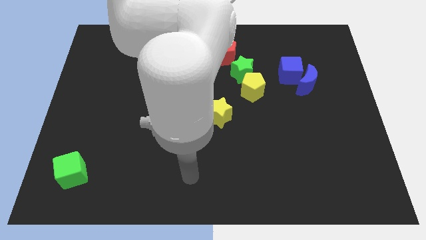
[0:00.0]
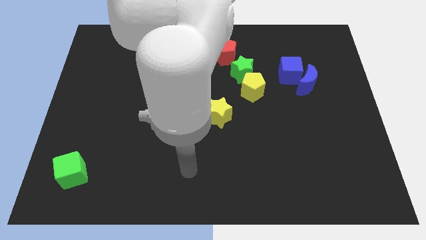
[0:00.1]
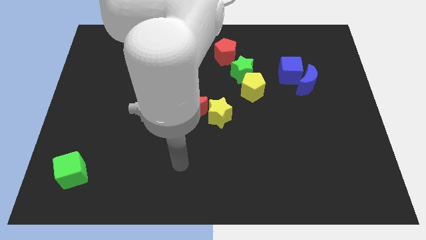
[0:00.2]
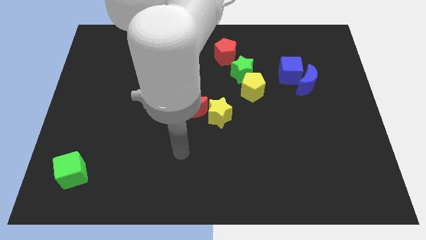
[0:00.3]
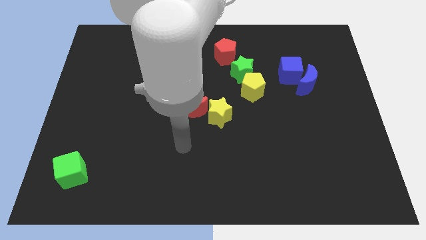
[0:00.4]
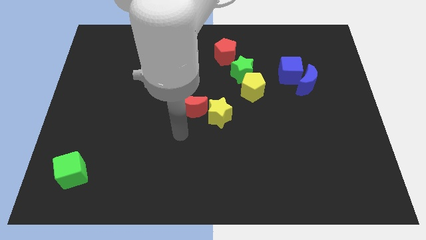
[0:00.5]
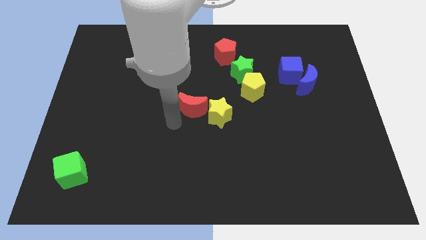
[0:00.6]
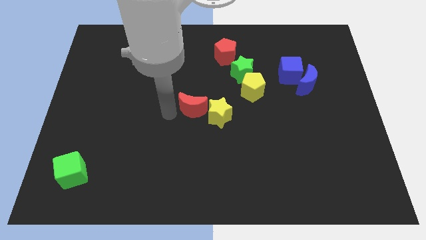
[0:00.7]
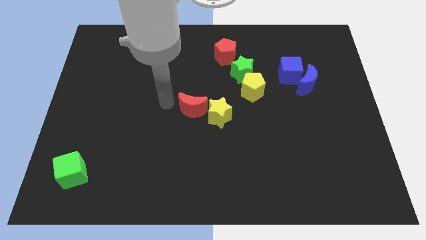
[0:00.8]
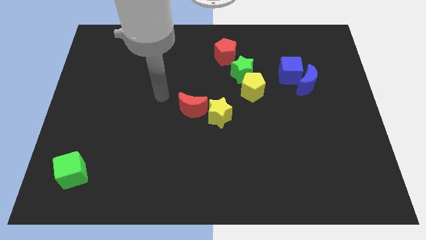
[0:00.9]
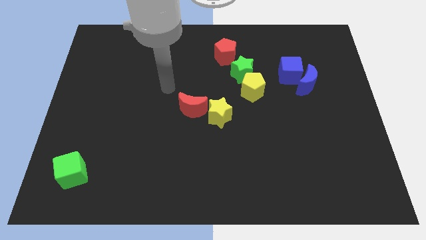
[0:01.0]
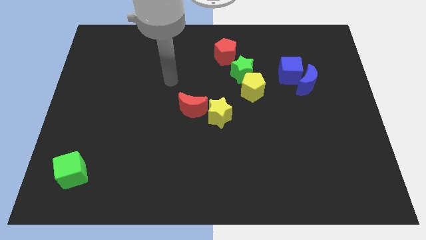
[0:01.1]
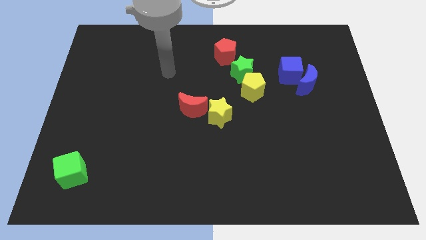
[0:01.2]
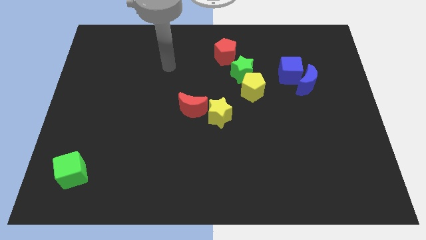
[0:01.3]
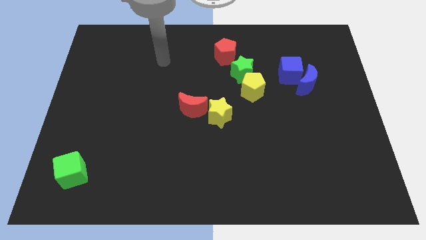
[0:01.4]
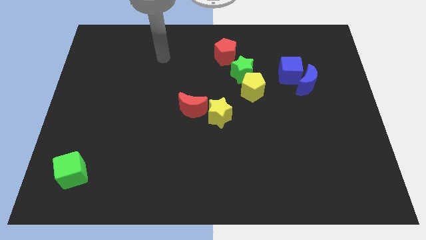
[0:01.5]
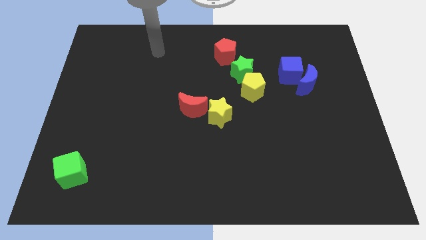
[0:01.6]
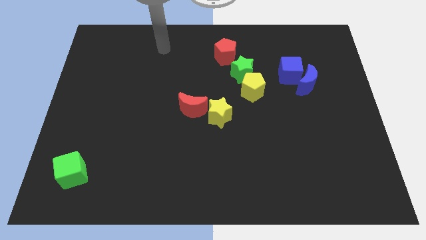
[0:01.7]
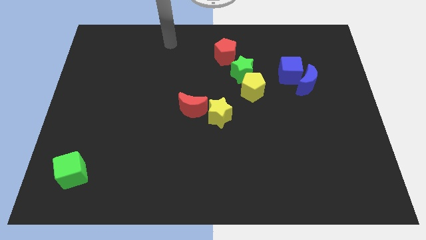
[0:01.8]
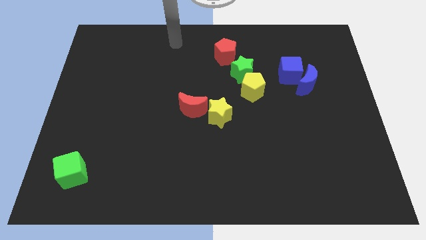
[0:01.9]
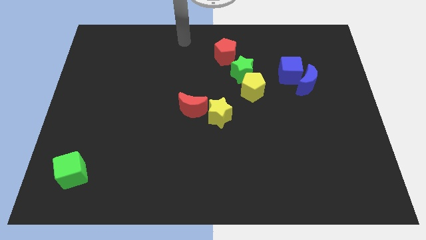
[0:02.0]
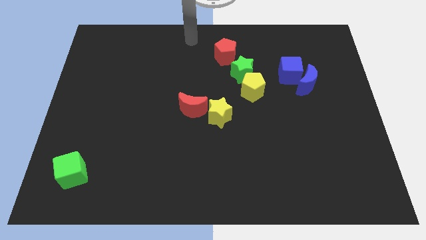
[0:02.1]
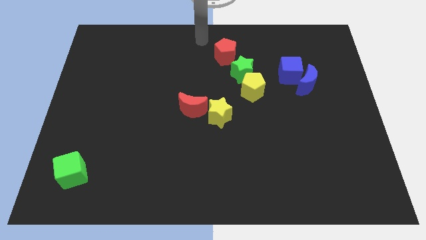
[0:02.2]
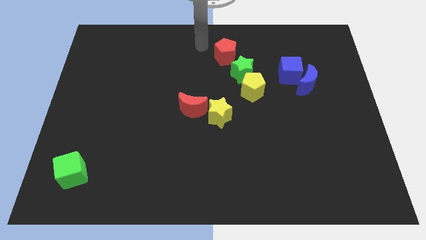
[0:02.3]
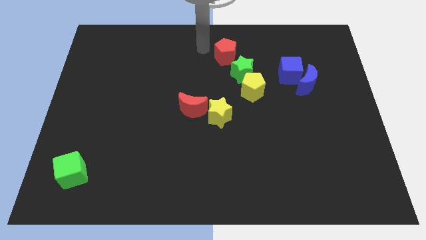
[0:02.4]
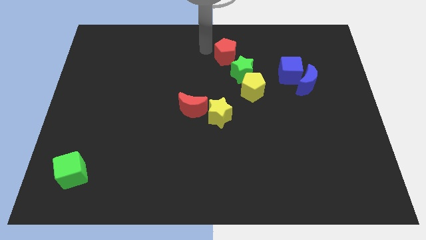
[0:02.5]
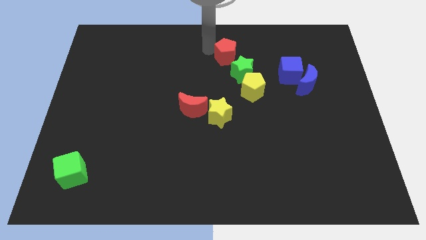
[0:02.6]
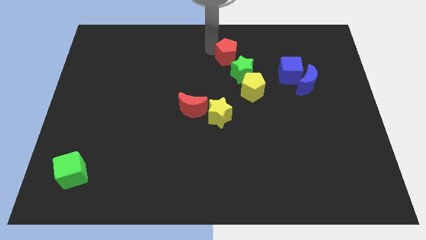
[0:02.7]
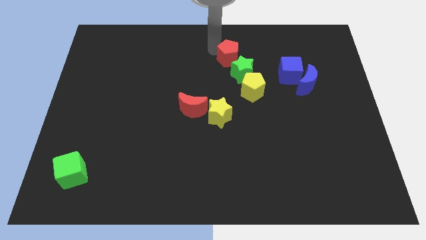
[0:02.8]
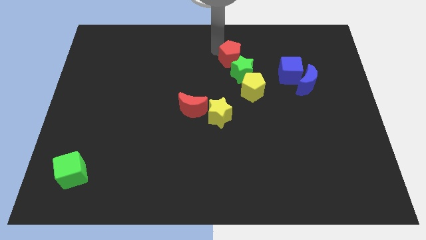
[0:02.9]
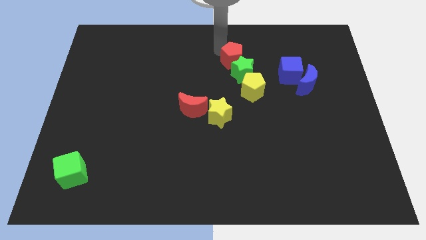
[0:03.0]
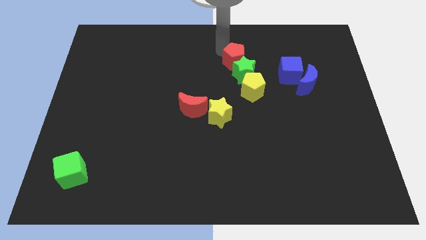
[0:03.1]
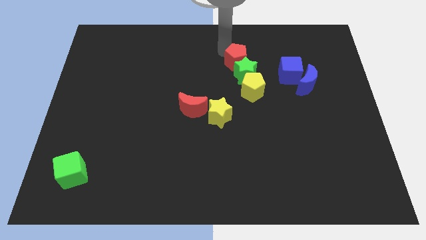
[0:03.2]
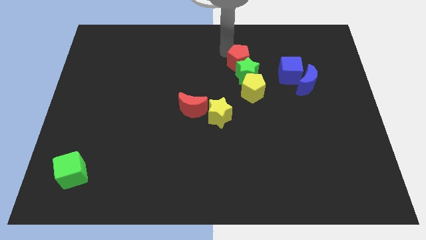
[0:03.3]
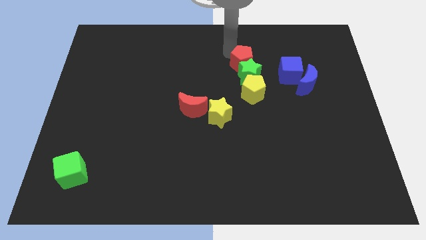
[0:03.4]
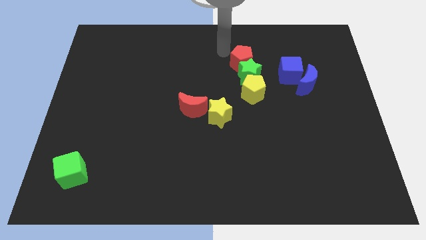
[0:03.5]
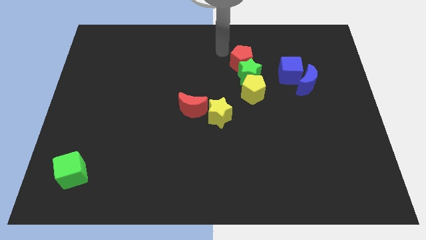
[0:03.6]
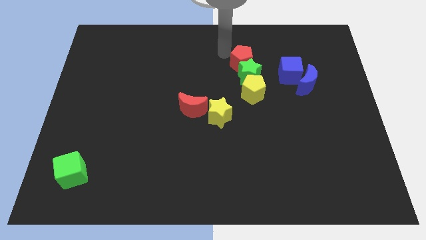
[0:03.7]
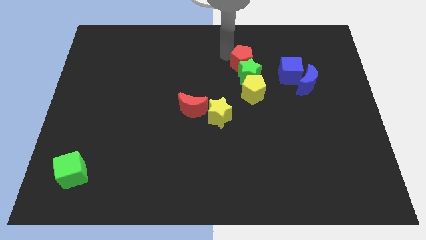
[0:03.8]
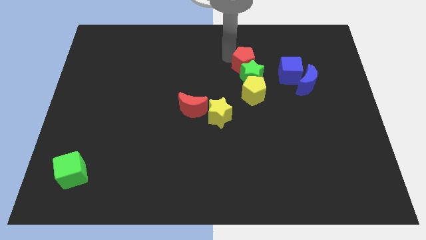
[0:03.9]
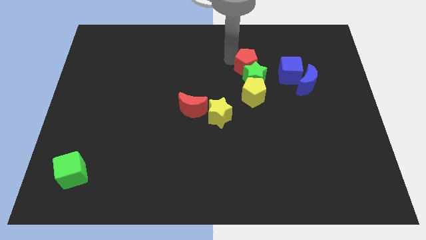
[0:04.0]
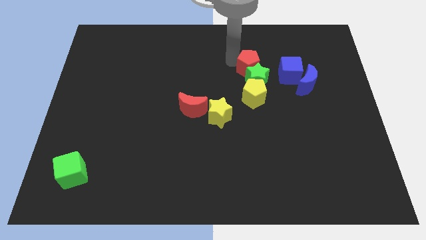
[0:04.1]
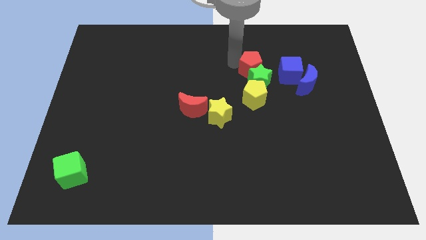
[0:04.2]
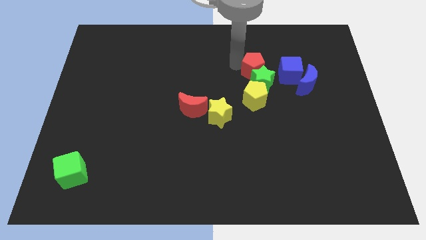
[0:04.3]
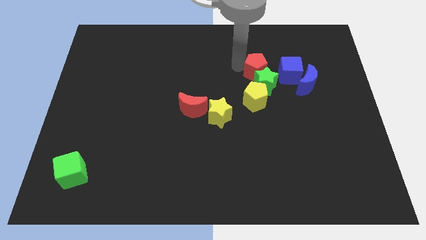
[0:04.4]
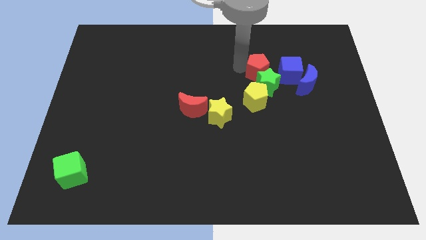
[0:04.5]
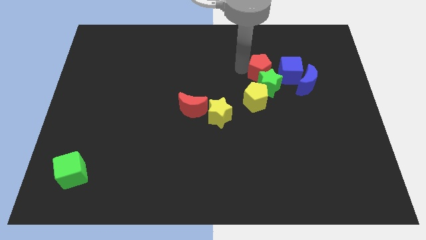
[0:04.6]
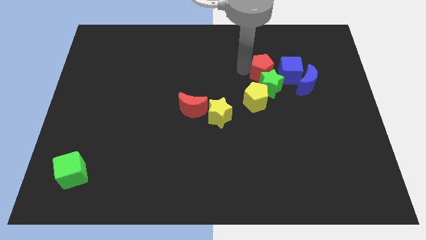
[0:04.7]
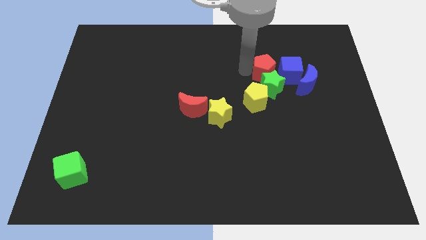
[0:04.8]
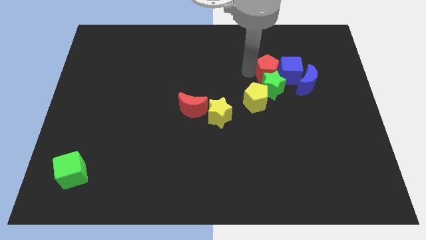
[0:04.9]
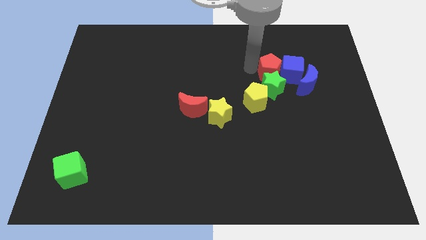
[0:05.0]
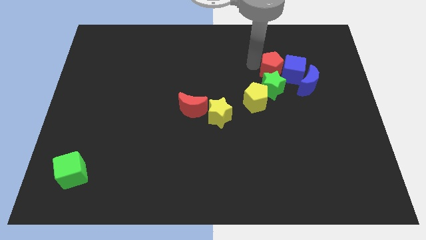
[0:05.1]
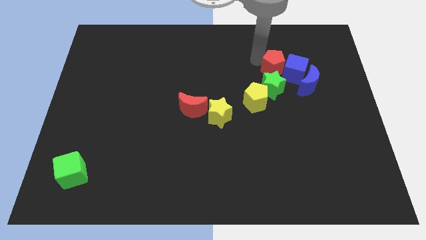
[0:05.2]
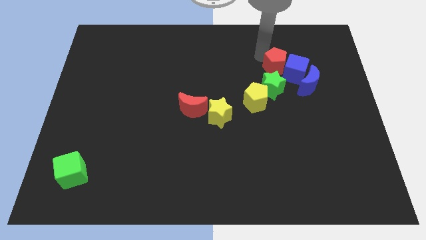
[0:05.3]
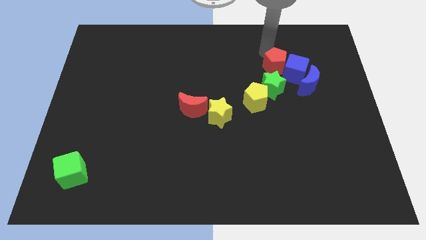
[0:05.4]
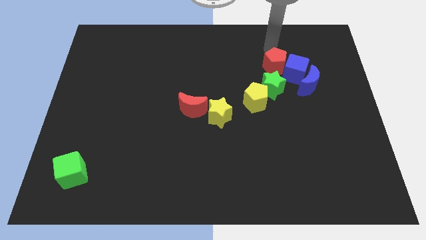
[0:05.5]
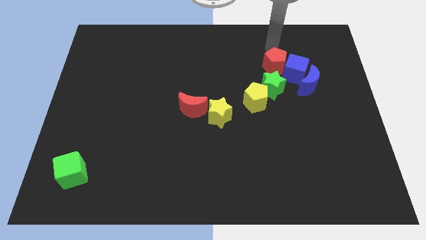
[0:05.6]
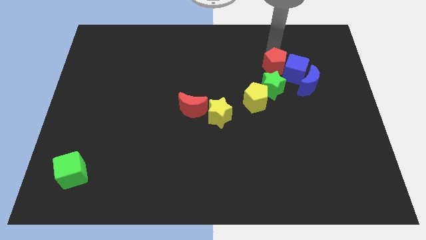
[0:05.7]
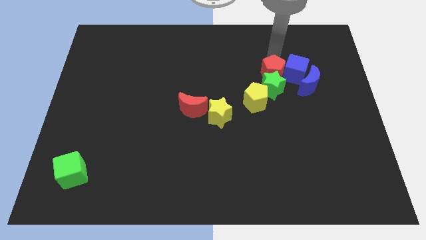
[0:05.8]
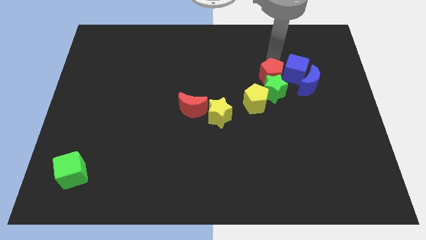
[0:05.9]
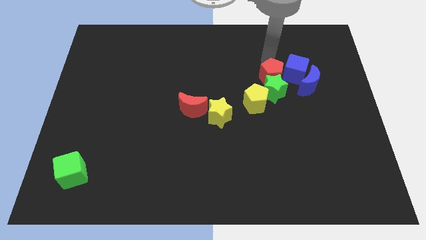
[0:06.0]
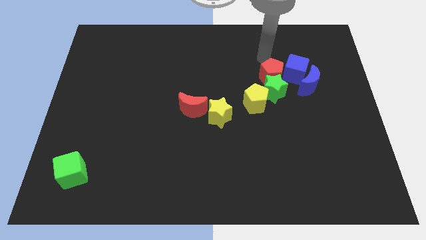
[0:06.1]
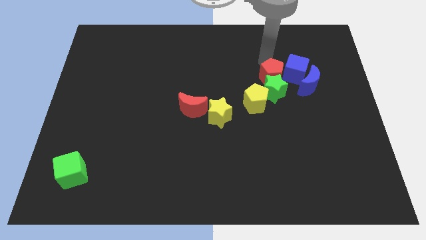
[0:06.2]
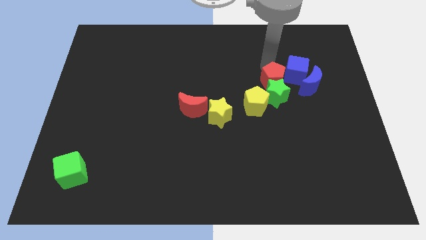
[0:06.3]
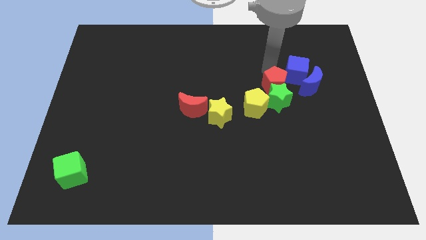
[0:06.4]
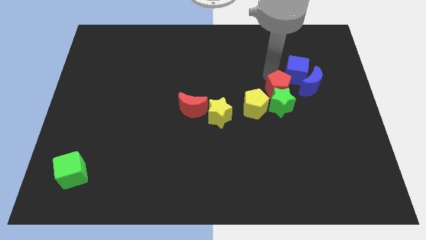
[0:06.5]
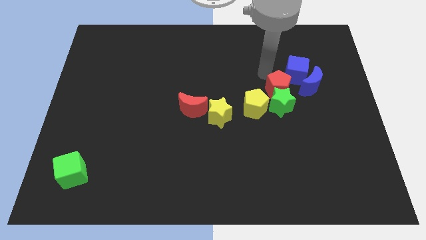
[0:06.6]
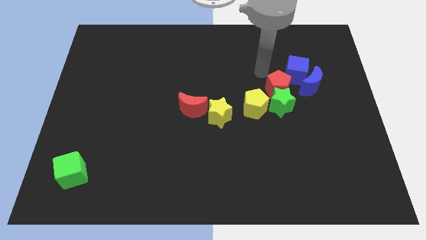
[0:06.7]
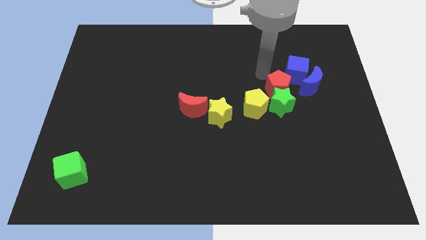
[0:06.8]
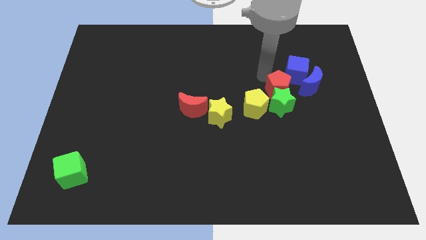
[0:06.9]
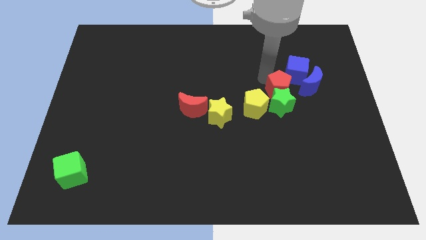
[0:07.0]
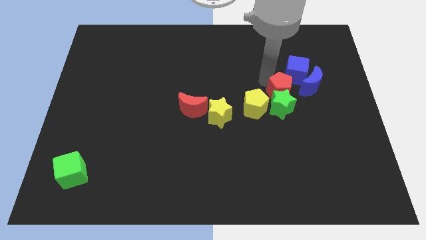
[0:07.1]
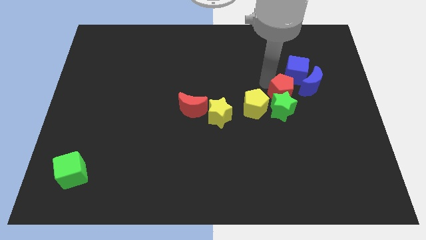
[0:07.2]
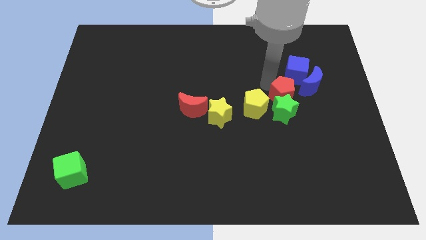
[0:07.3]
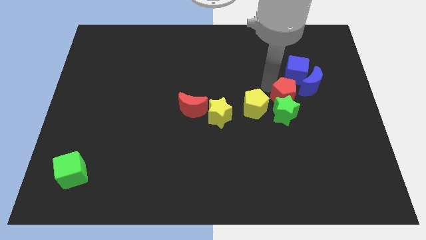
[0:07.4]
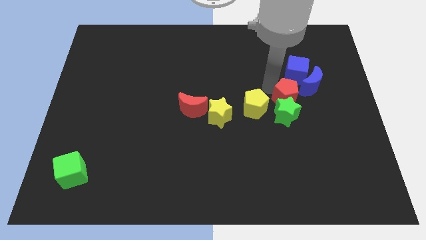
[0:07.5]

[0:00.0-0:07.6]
slide the red pentagon down and right diagonally

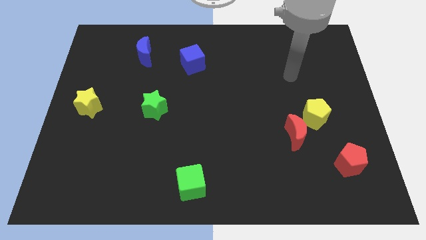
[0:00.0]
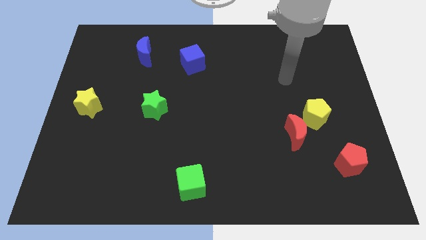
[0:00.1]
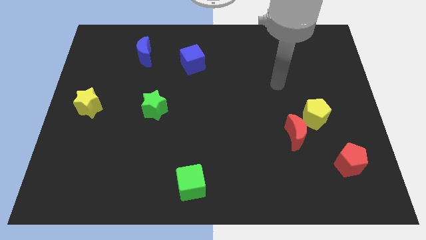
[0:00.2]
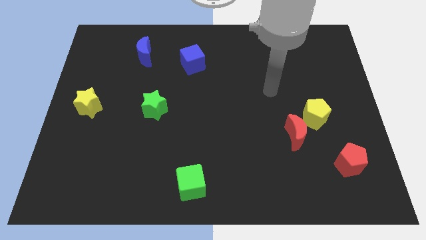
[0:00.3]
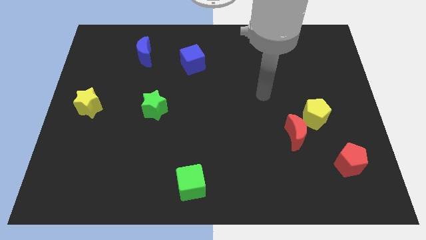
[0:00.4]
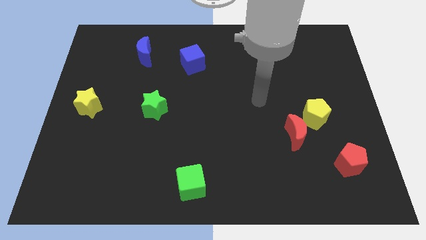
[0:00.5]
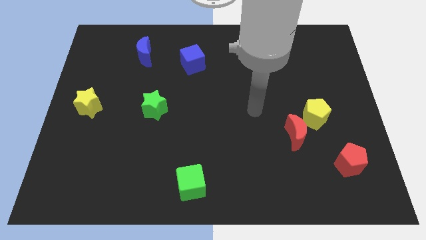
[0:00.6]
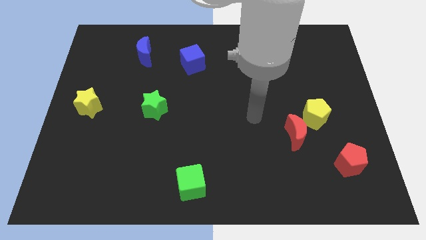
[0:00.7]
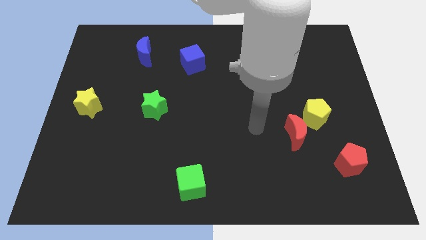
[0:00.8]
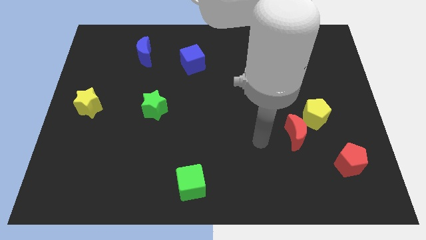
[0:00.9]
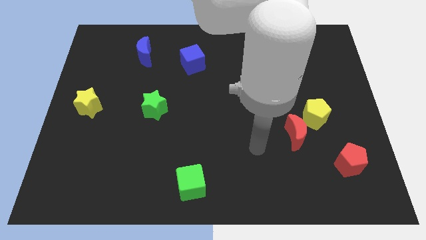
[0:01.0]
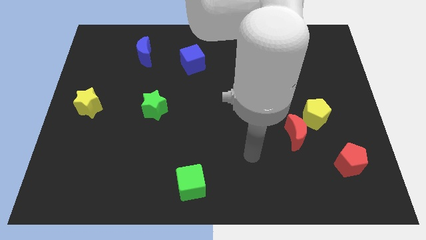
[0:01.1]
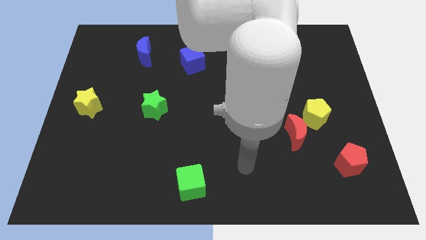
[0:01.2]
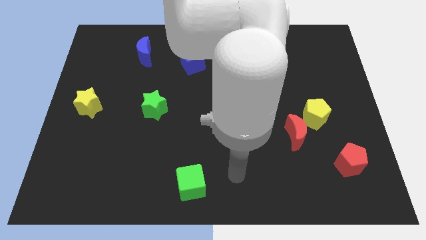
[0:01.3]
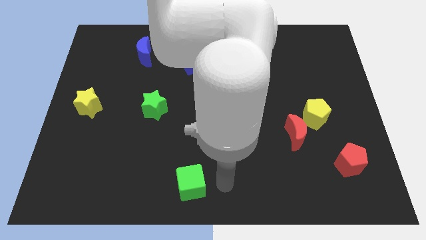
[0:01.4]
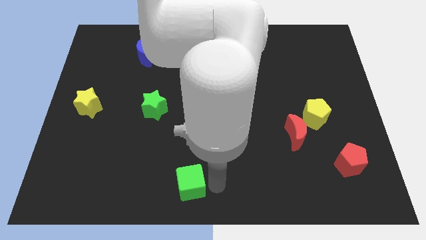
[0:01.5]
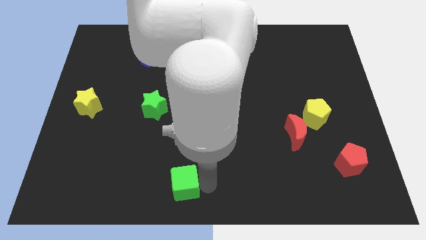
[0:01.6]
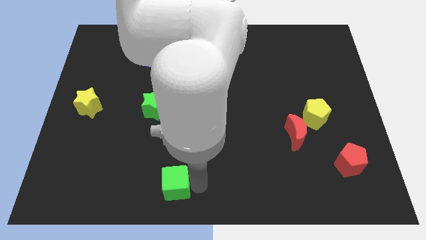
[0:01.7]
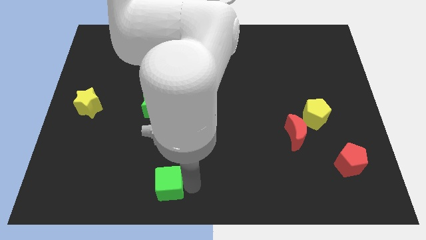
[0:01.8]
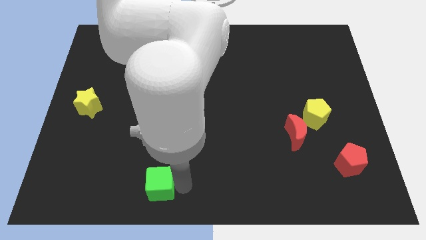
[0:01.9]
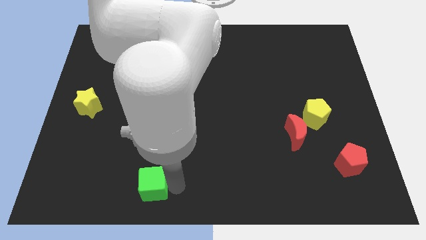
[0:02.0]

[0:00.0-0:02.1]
slide the green cube somewhat left
